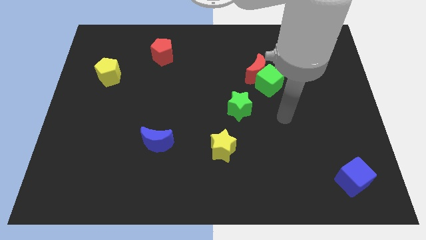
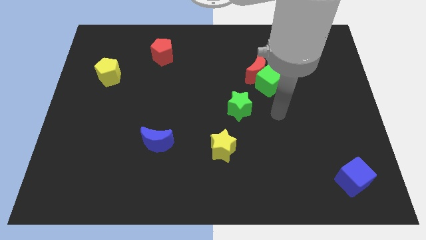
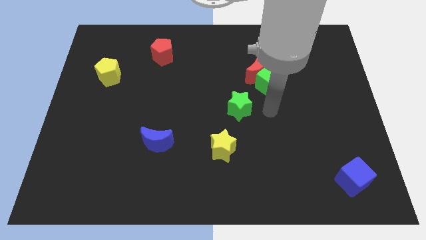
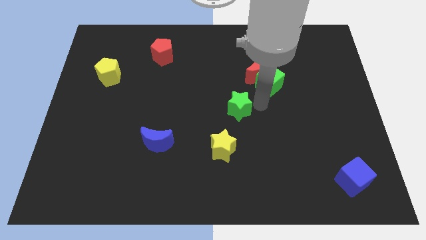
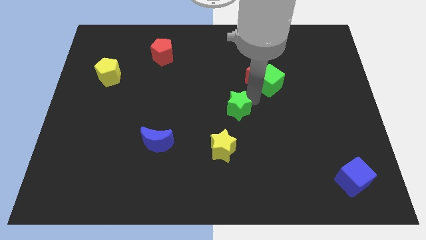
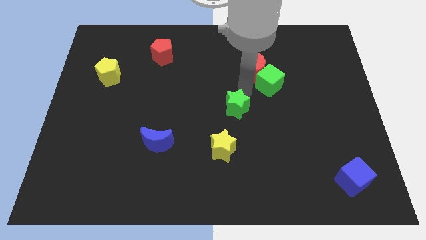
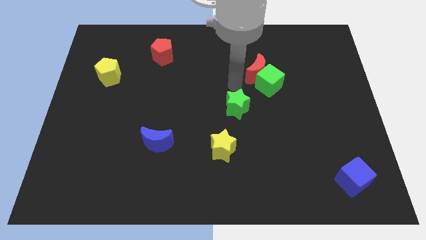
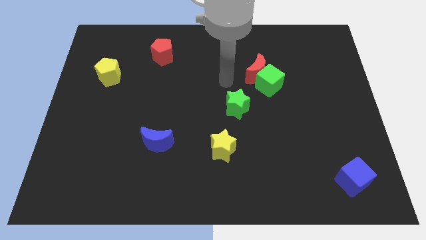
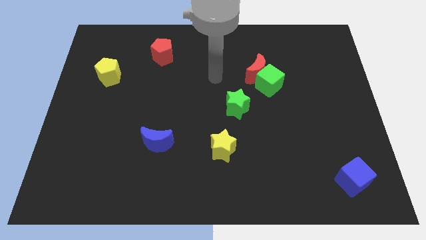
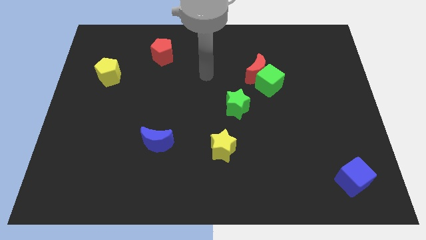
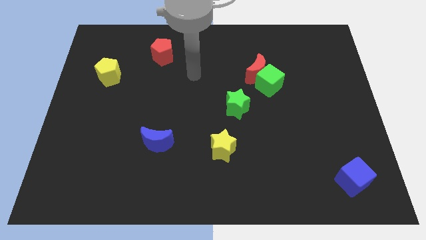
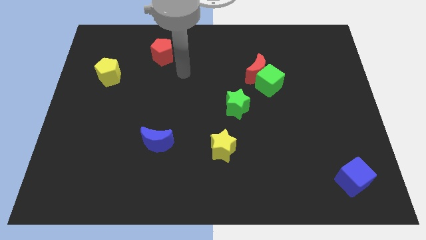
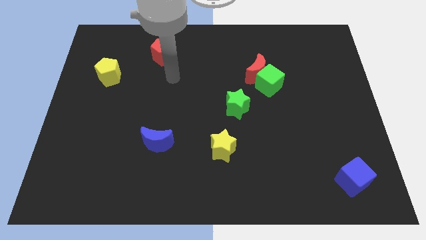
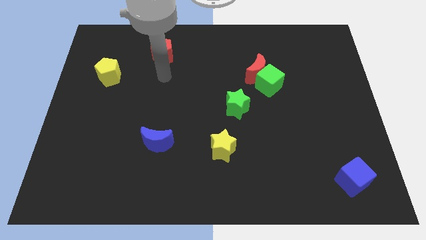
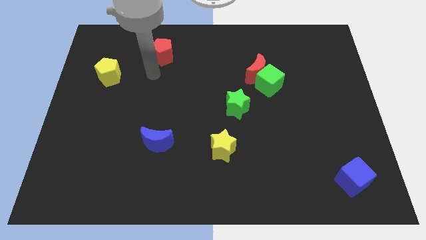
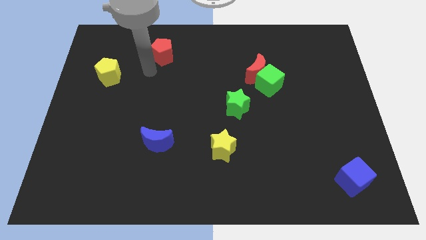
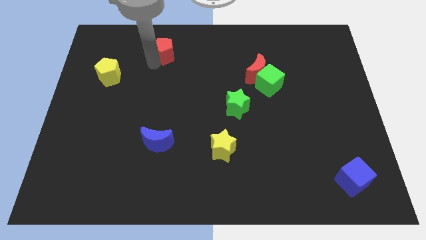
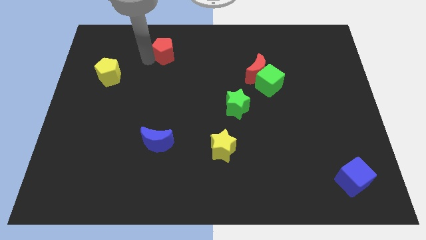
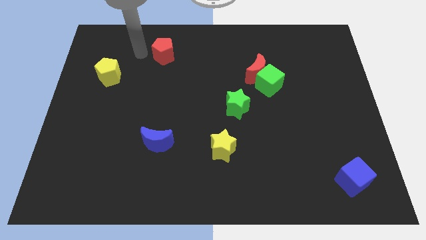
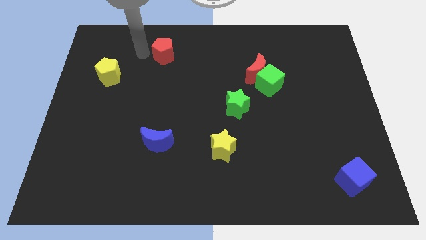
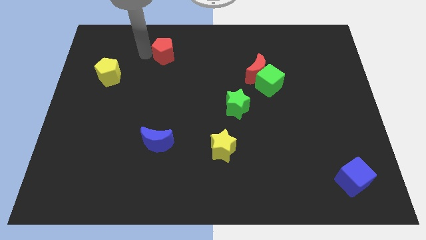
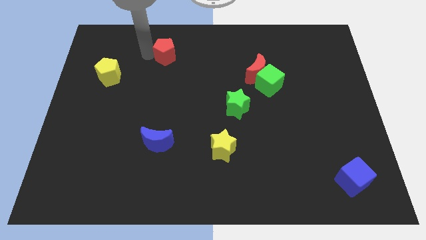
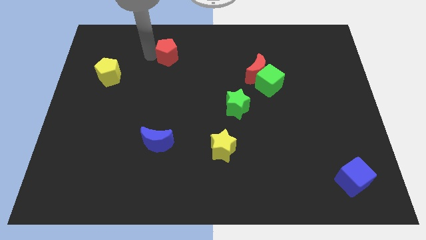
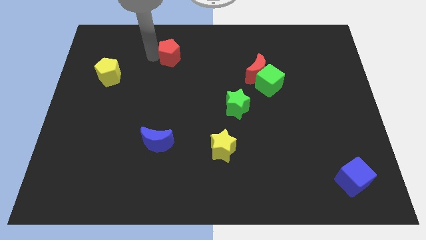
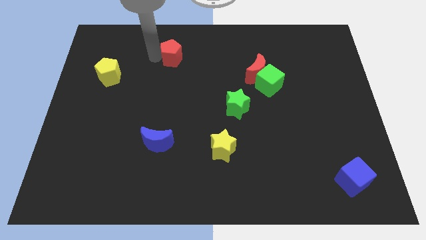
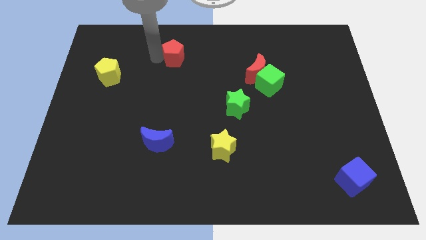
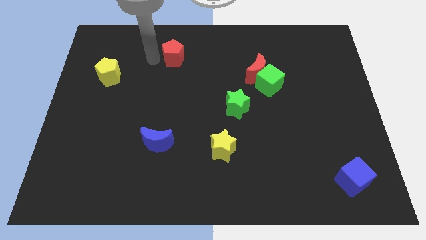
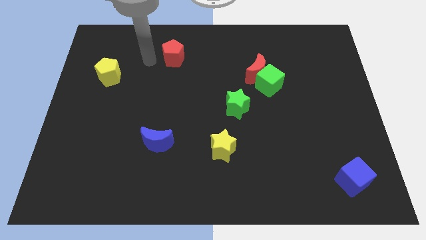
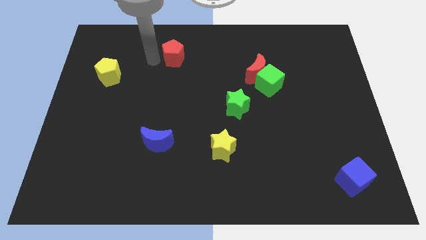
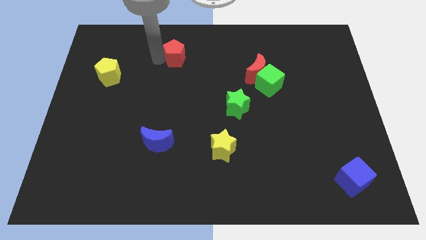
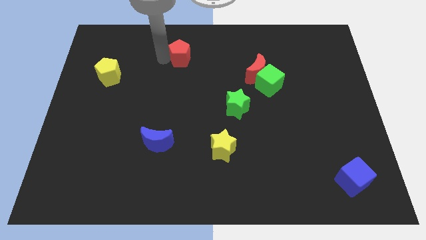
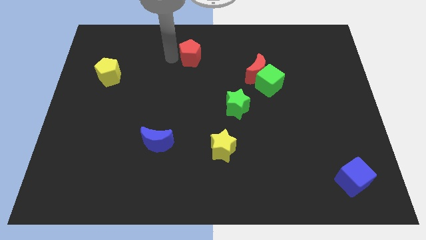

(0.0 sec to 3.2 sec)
slide the red pentagon right a bit

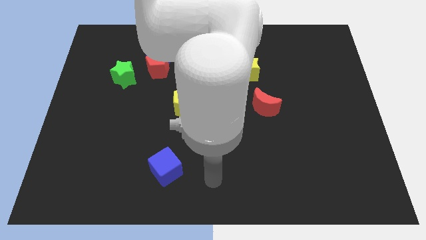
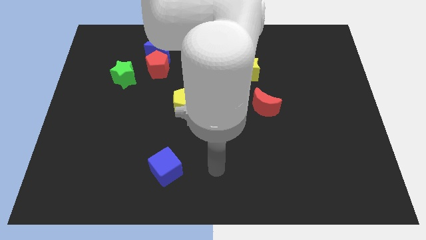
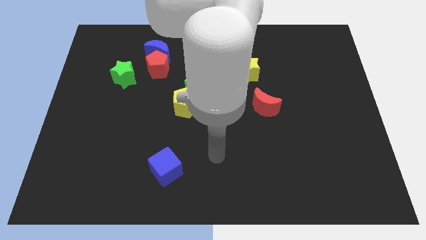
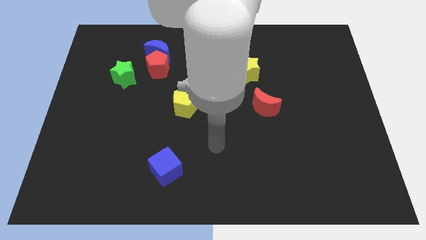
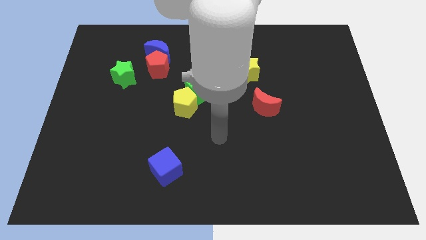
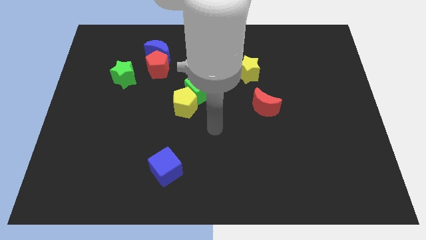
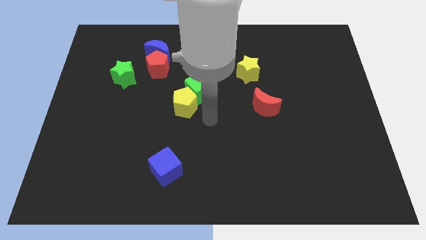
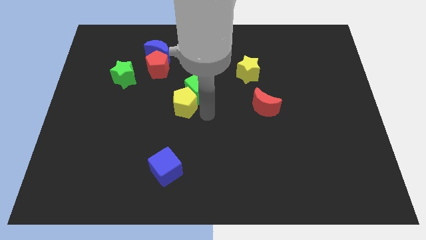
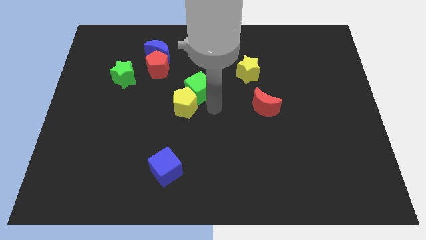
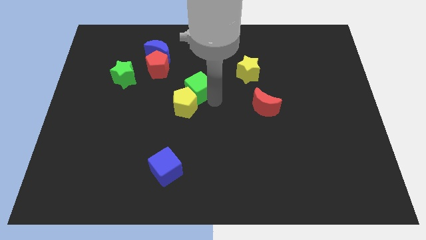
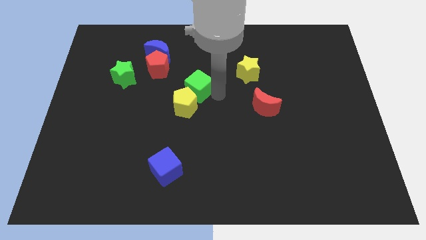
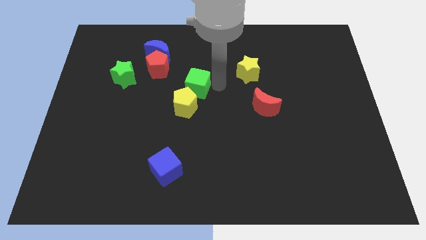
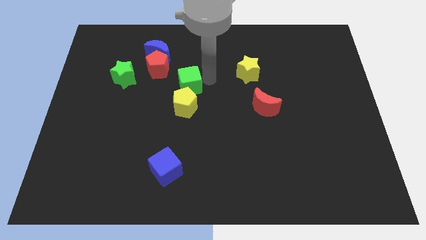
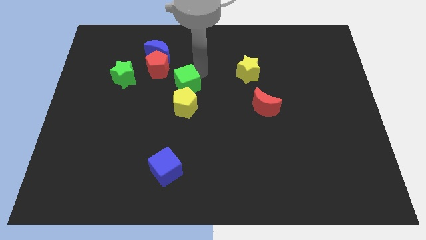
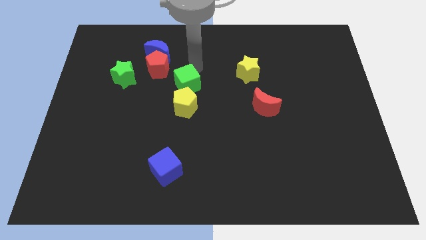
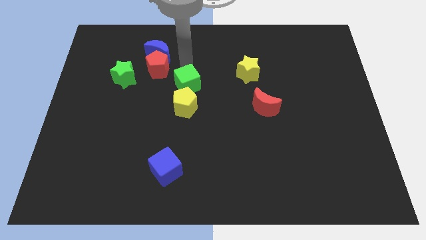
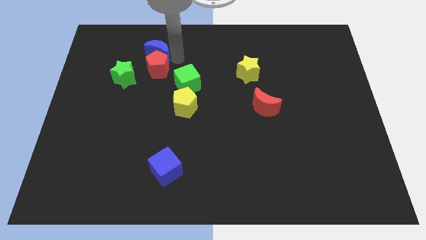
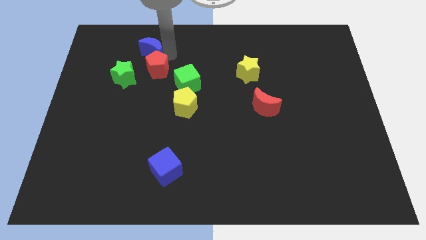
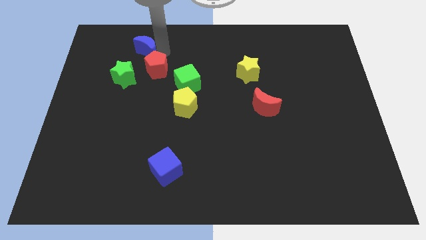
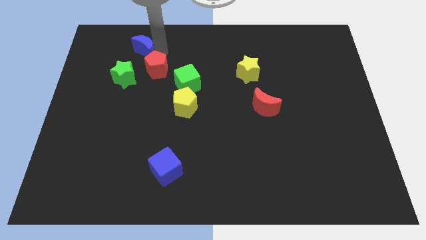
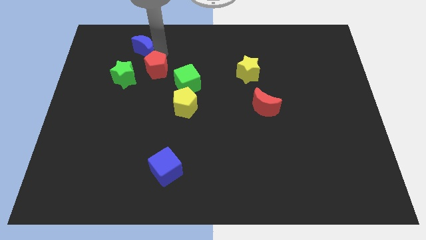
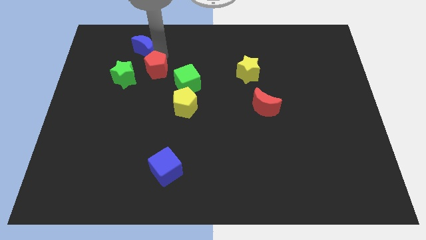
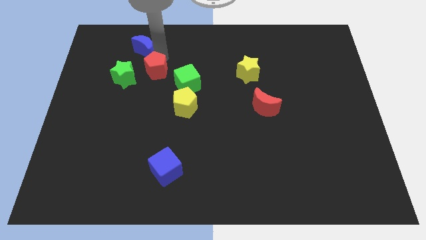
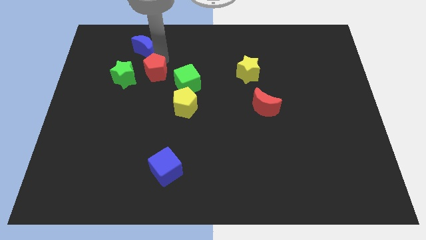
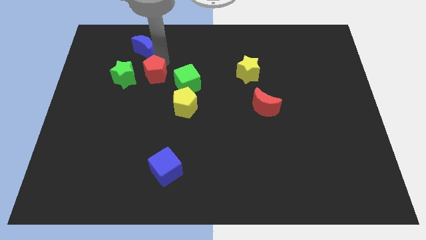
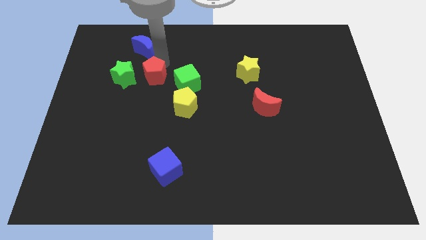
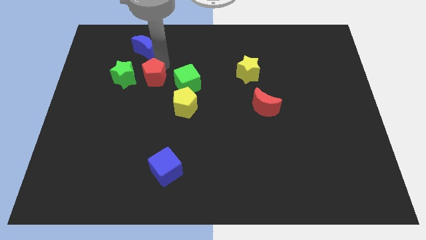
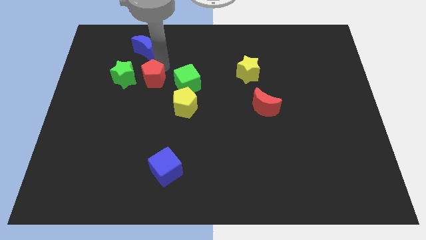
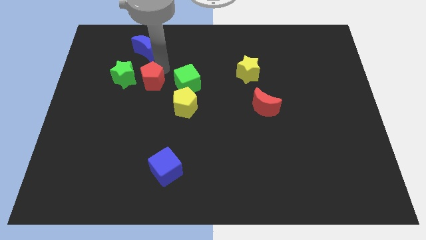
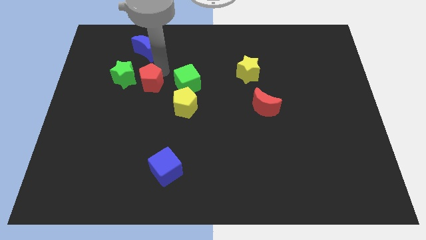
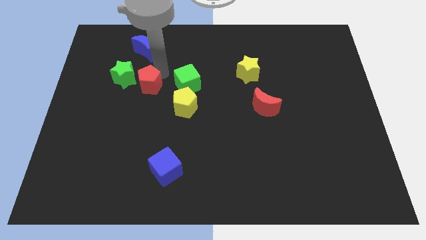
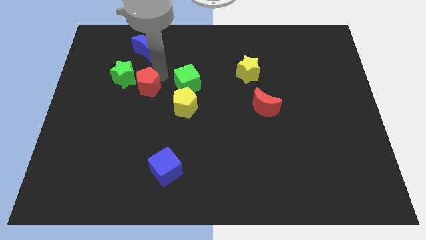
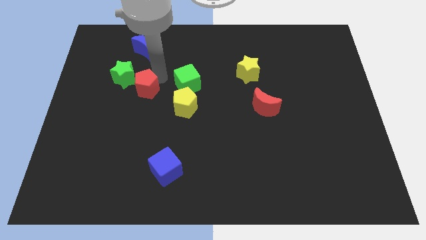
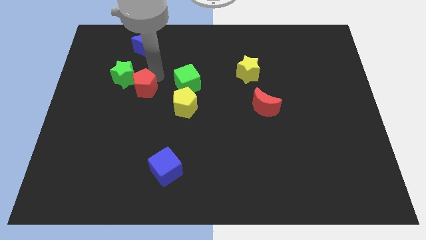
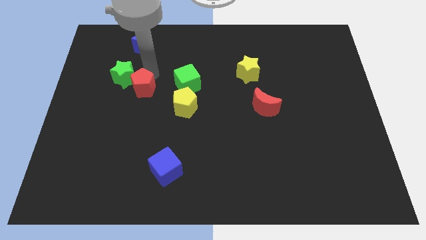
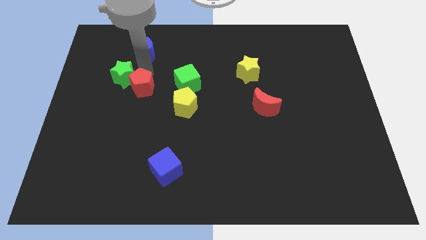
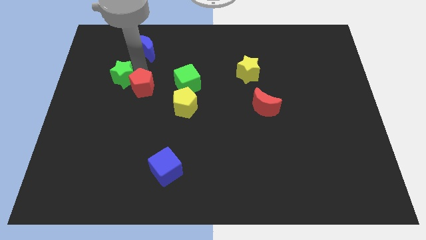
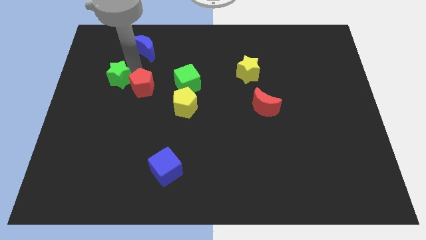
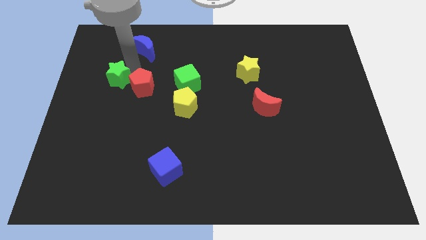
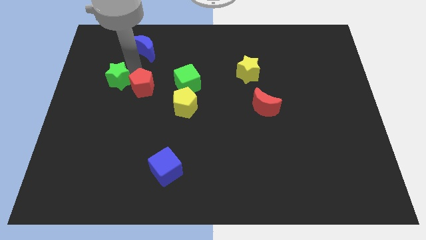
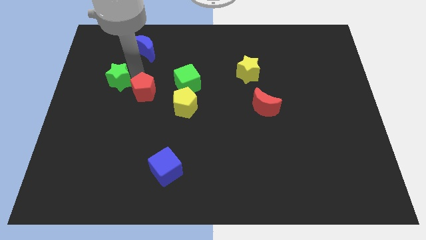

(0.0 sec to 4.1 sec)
push the red pentagon slightly downwards

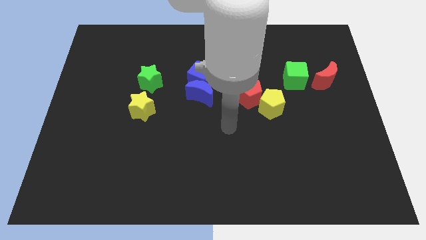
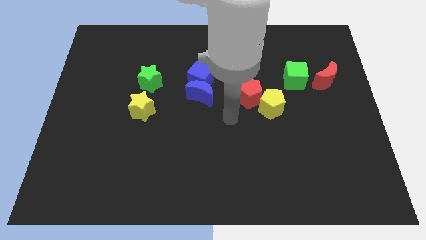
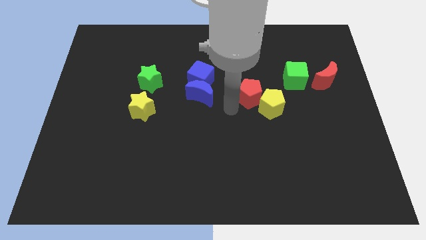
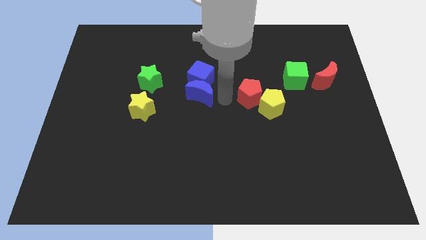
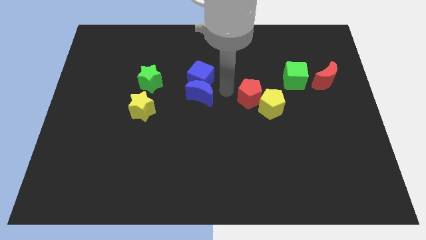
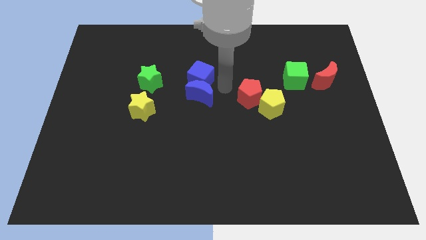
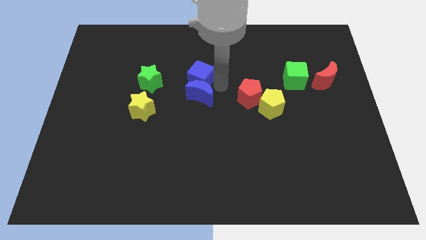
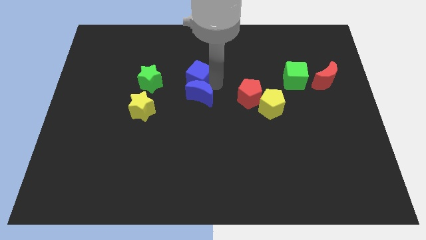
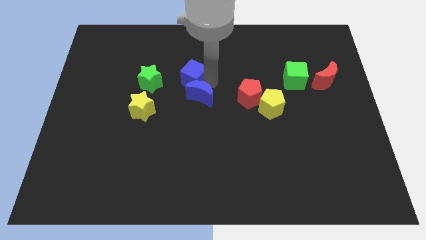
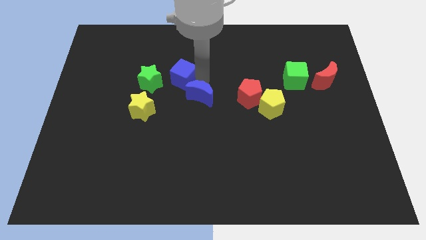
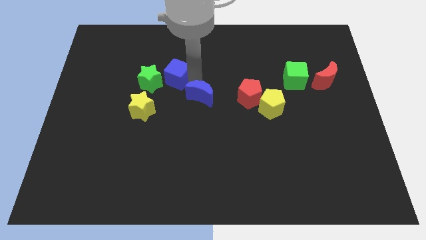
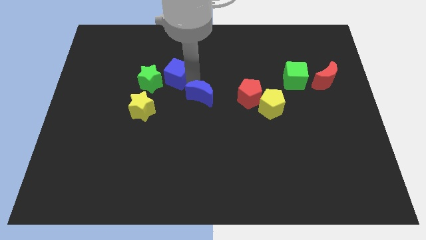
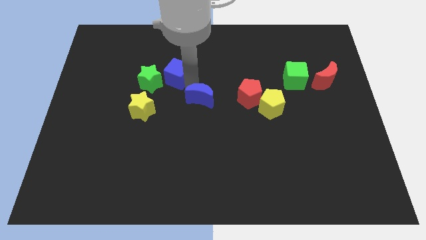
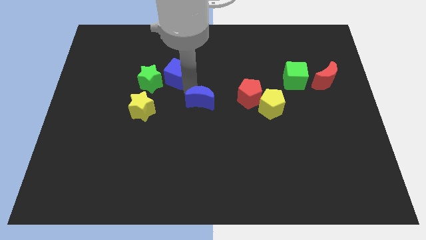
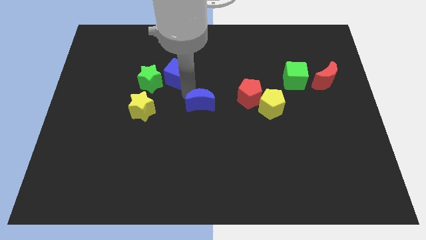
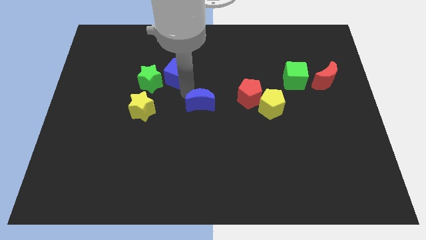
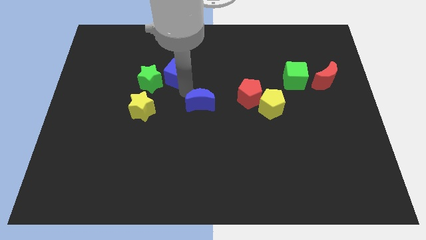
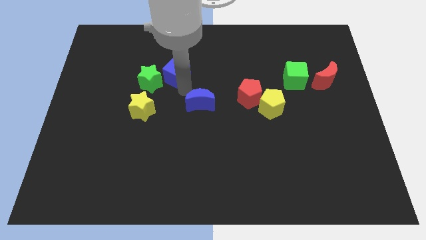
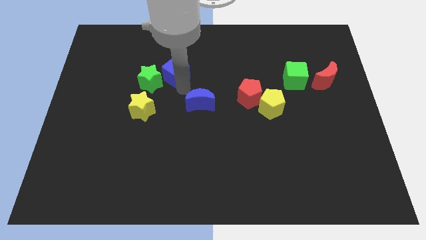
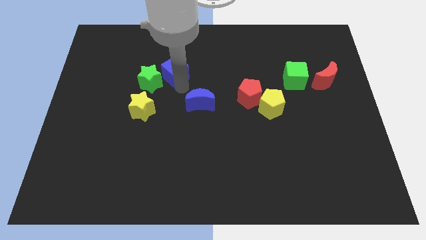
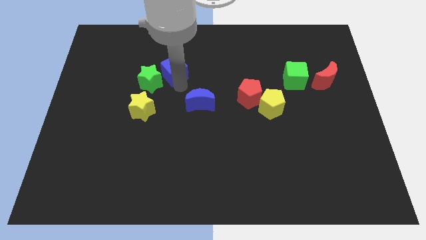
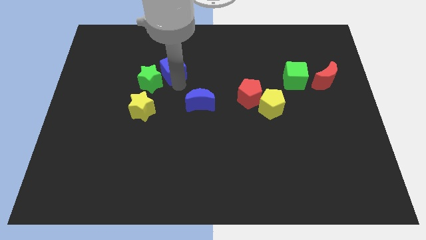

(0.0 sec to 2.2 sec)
slightly push the blue cube left
